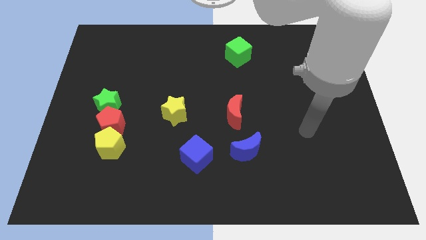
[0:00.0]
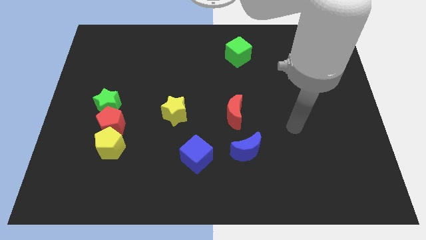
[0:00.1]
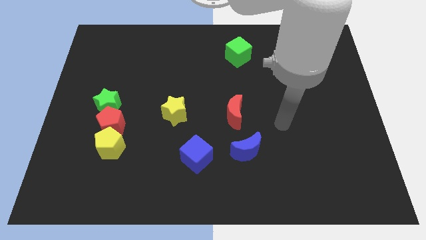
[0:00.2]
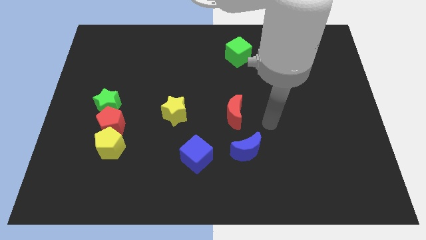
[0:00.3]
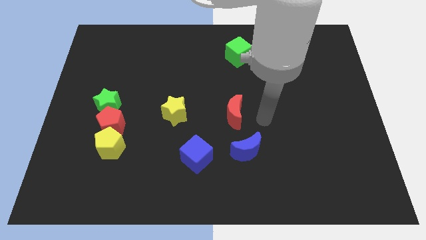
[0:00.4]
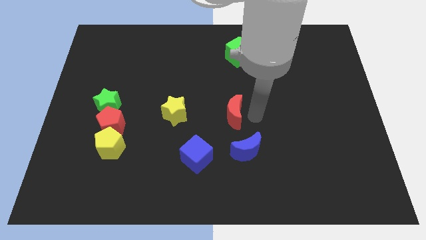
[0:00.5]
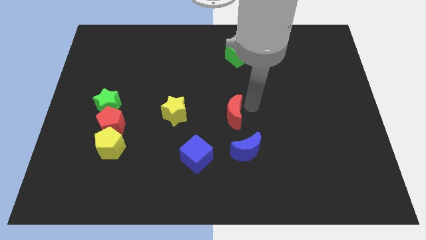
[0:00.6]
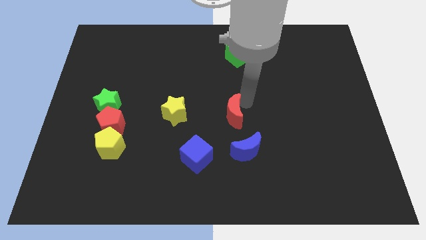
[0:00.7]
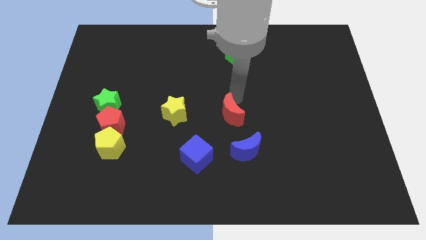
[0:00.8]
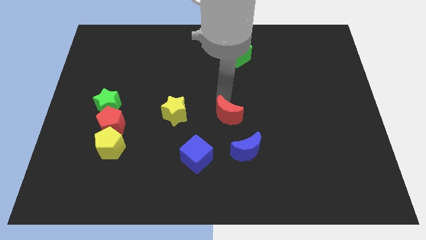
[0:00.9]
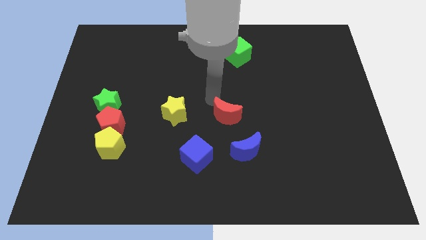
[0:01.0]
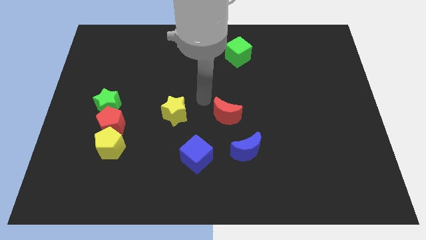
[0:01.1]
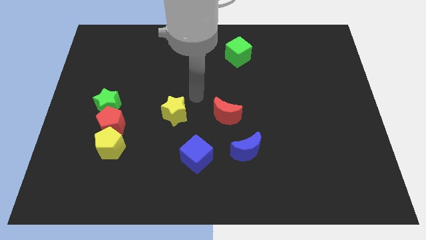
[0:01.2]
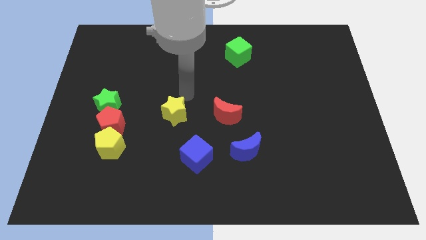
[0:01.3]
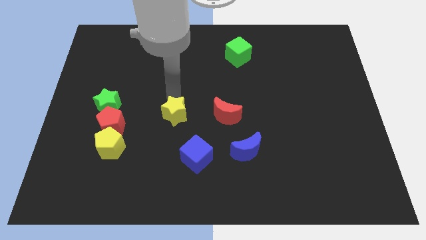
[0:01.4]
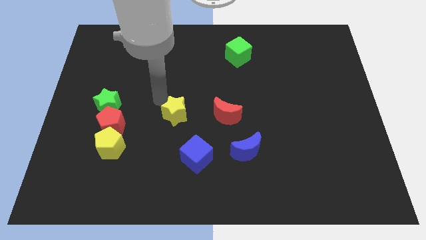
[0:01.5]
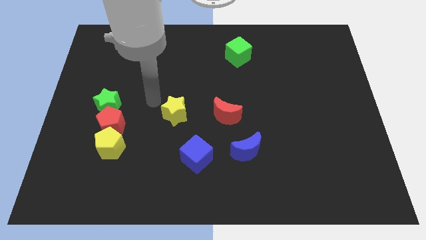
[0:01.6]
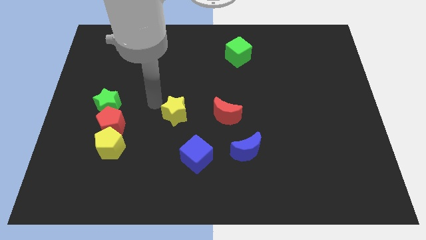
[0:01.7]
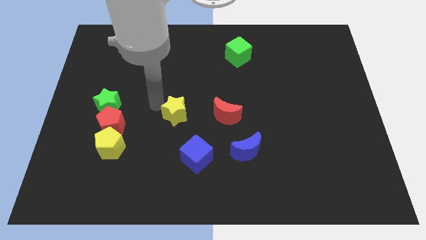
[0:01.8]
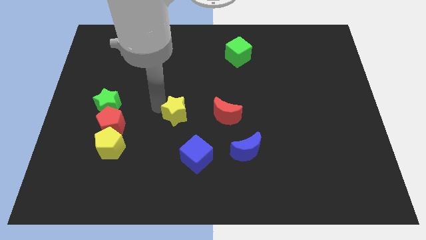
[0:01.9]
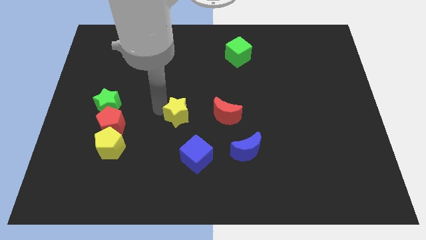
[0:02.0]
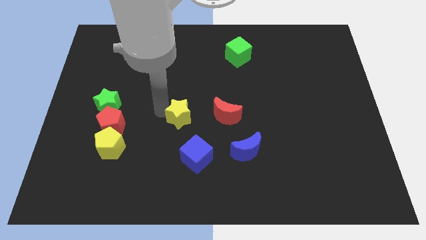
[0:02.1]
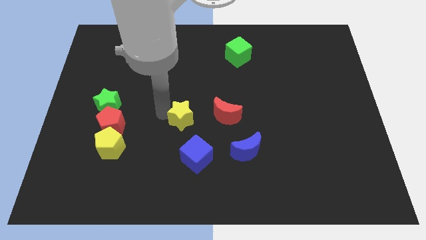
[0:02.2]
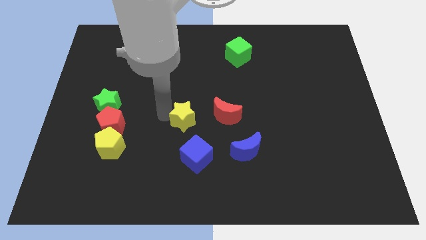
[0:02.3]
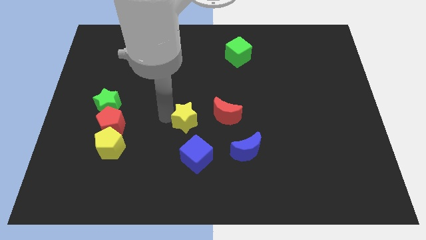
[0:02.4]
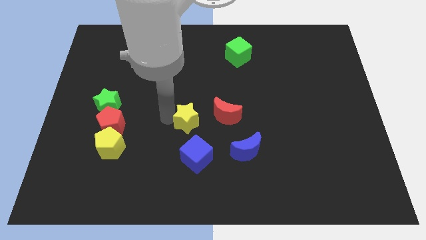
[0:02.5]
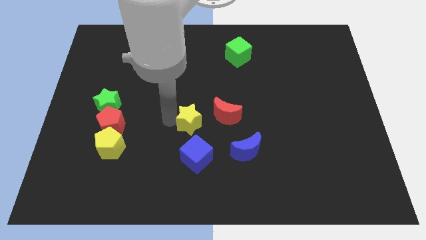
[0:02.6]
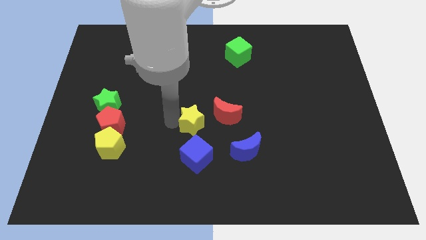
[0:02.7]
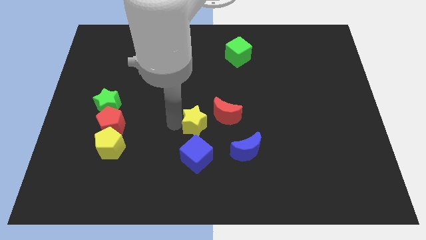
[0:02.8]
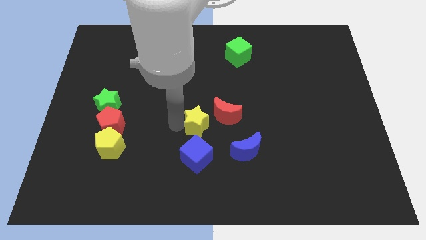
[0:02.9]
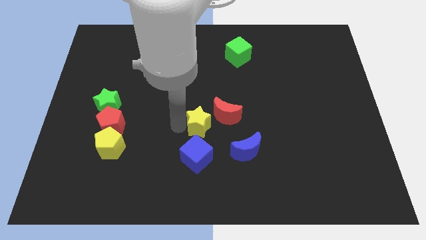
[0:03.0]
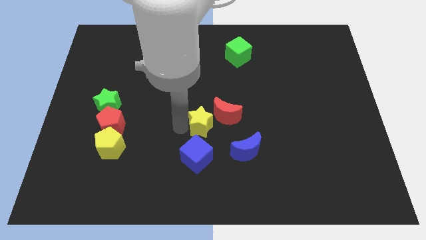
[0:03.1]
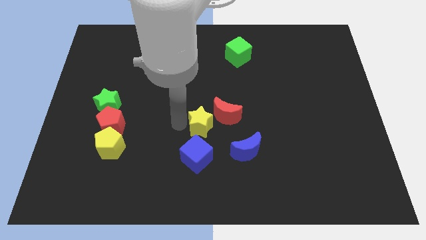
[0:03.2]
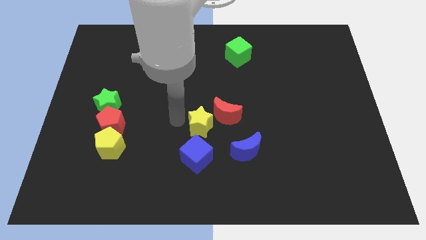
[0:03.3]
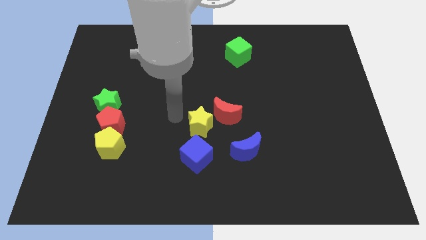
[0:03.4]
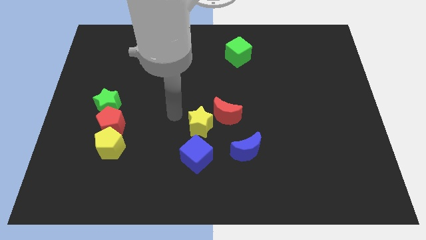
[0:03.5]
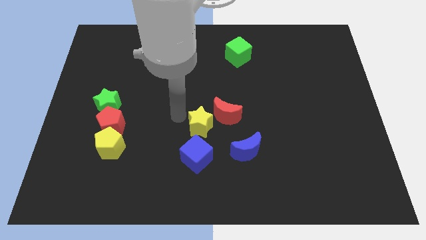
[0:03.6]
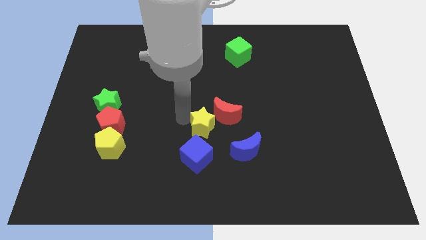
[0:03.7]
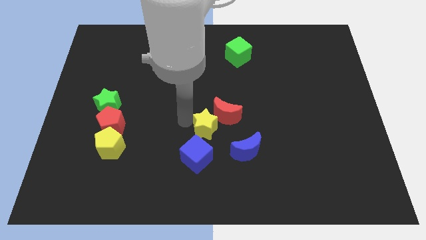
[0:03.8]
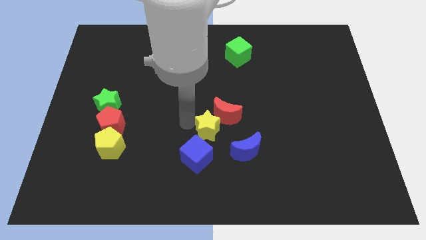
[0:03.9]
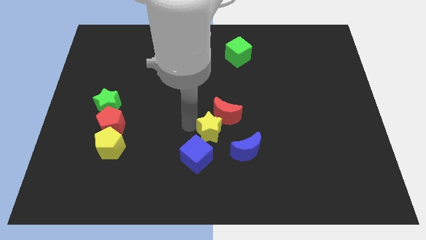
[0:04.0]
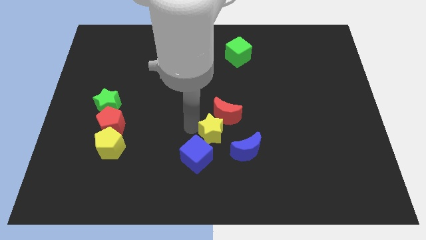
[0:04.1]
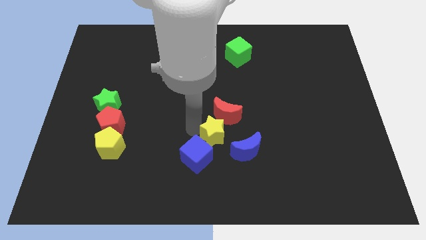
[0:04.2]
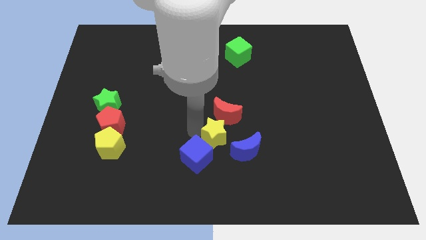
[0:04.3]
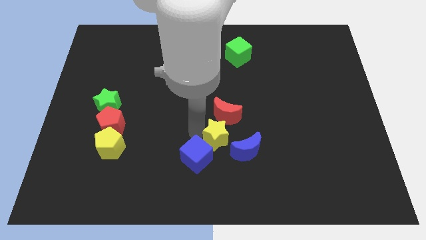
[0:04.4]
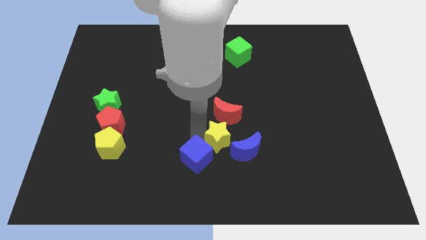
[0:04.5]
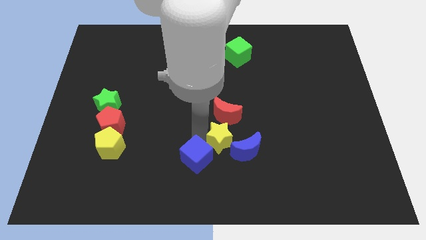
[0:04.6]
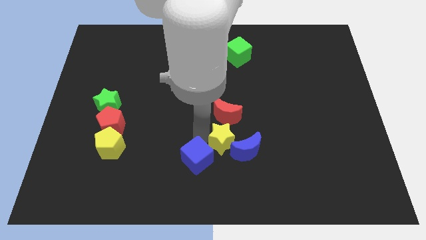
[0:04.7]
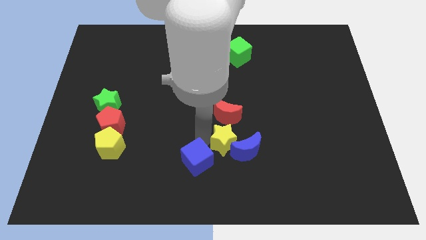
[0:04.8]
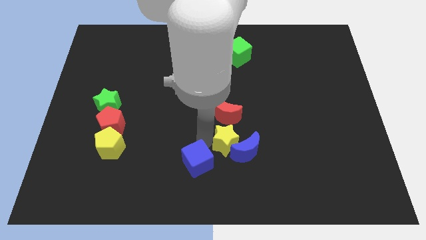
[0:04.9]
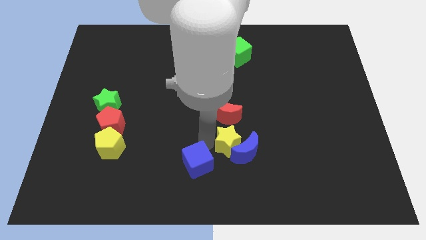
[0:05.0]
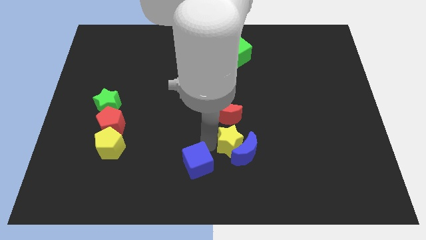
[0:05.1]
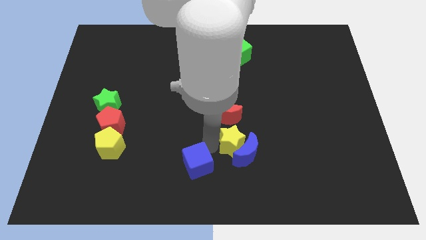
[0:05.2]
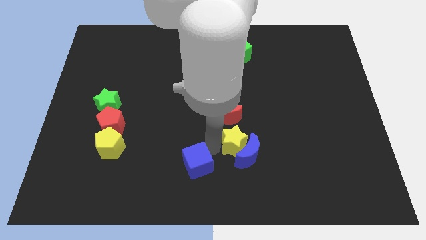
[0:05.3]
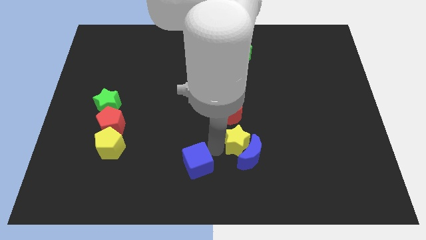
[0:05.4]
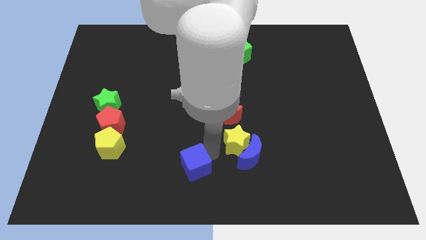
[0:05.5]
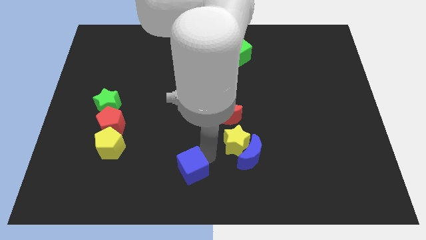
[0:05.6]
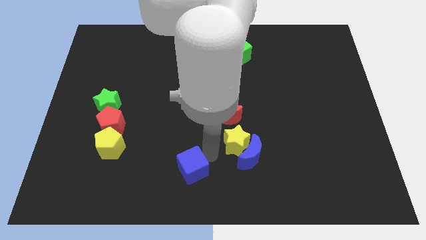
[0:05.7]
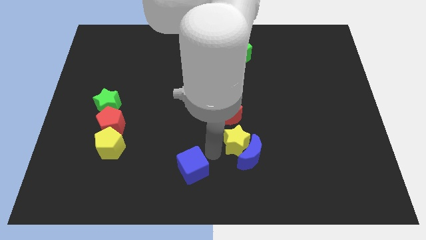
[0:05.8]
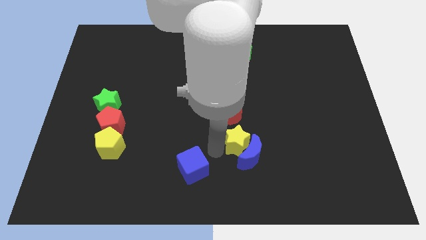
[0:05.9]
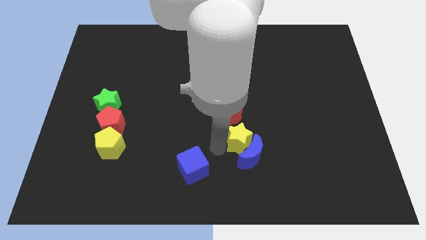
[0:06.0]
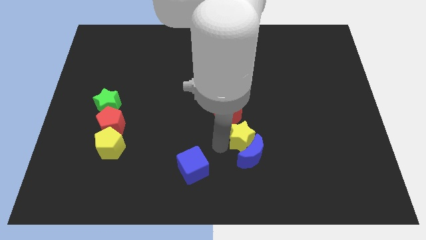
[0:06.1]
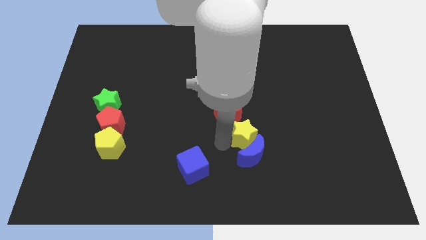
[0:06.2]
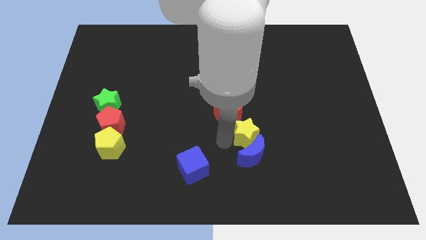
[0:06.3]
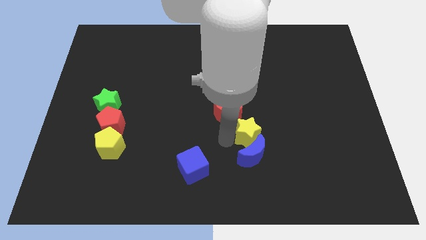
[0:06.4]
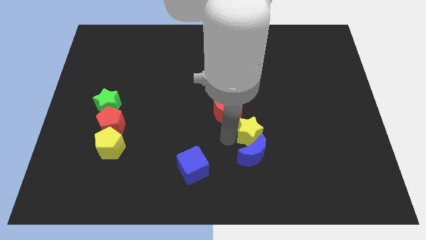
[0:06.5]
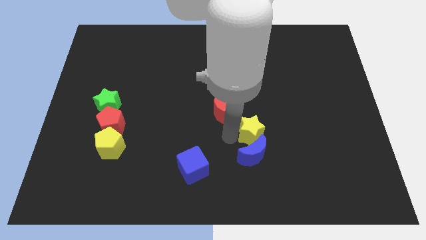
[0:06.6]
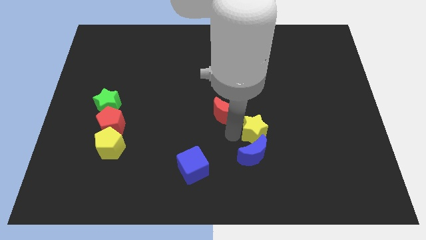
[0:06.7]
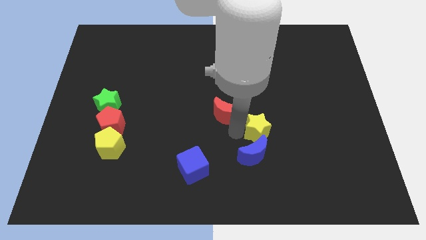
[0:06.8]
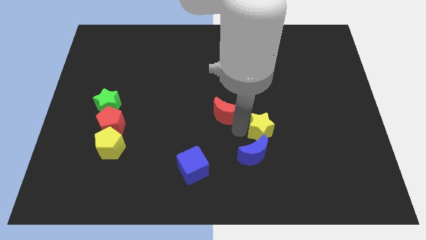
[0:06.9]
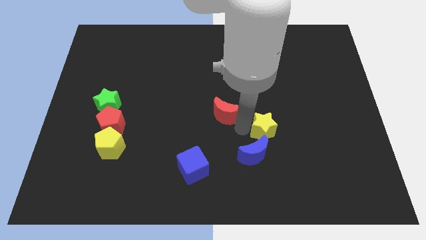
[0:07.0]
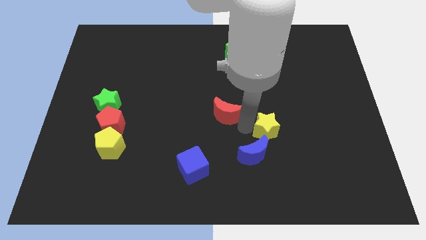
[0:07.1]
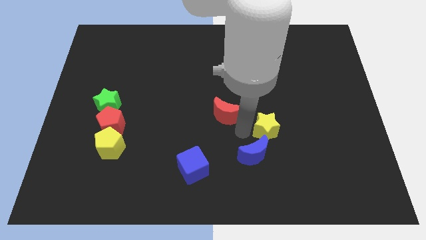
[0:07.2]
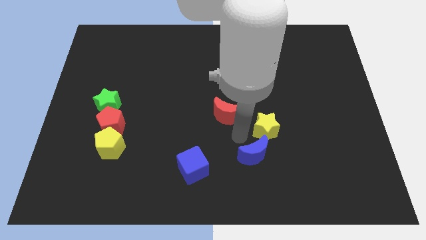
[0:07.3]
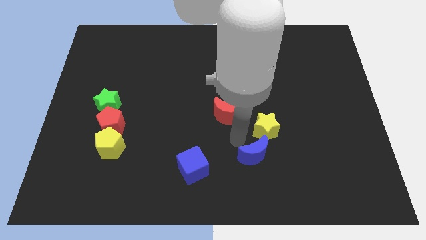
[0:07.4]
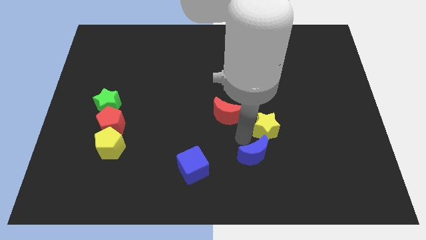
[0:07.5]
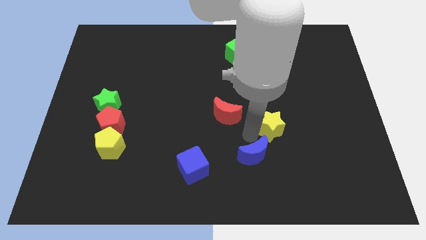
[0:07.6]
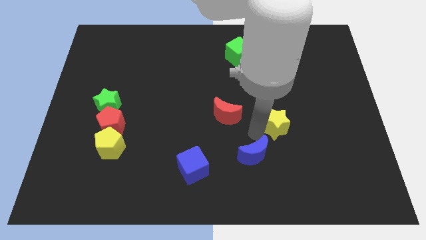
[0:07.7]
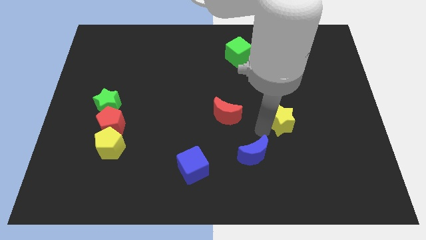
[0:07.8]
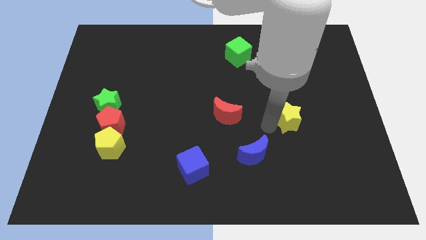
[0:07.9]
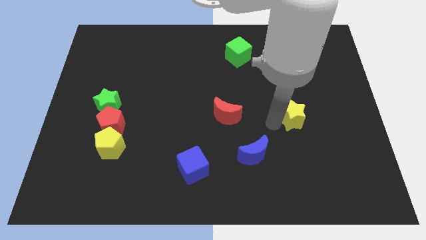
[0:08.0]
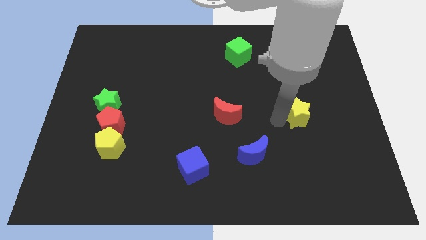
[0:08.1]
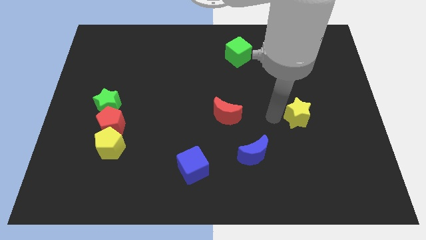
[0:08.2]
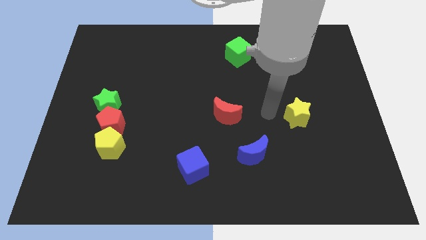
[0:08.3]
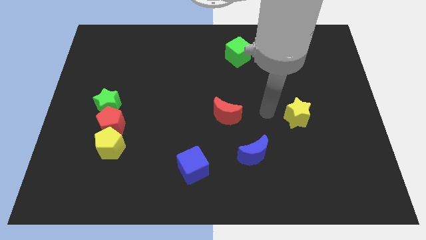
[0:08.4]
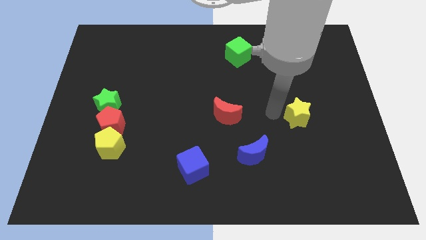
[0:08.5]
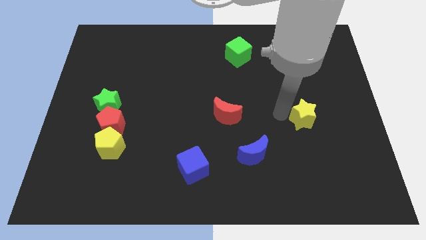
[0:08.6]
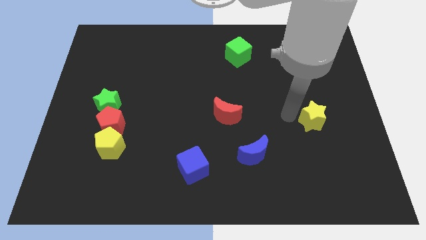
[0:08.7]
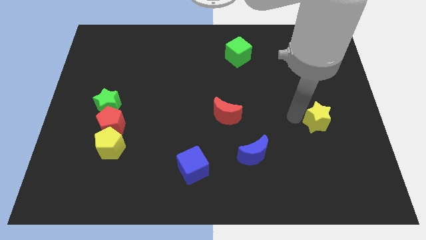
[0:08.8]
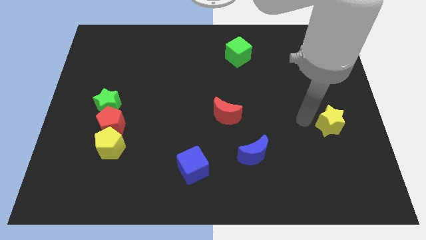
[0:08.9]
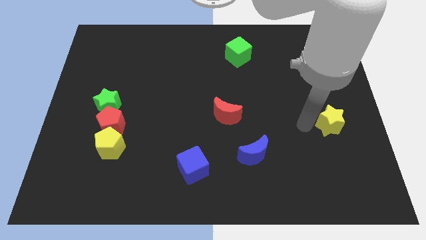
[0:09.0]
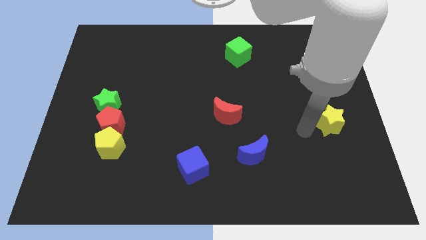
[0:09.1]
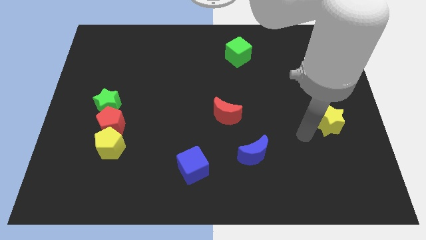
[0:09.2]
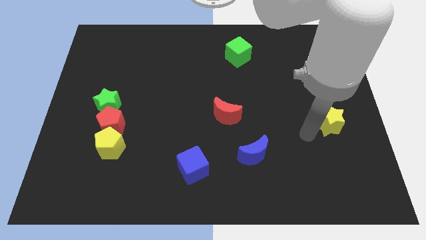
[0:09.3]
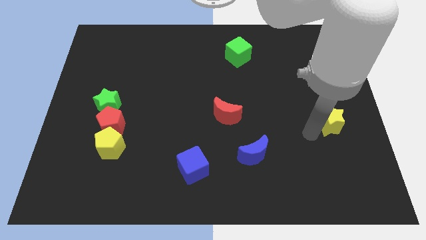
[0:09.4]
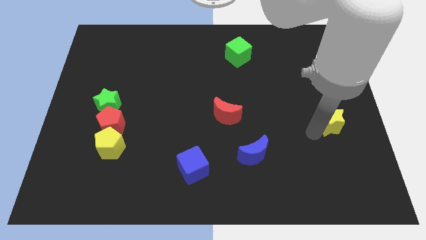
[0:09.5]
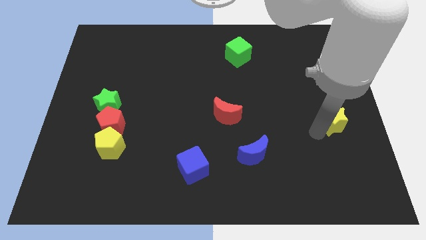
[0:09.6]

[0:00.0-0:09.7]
push the yellow star to the center right
